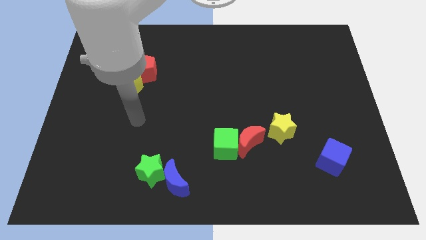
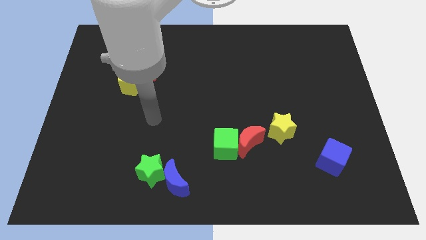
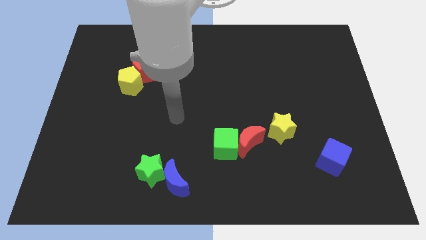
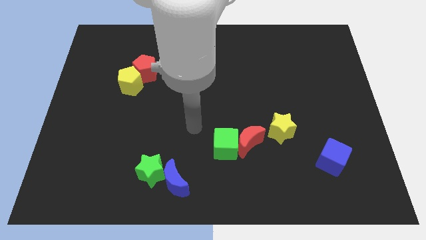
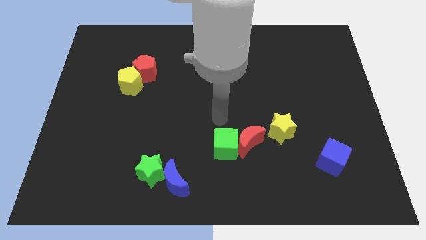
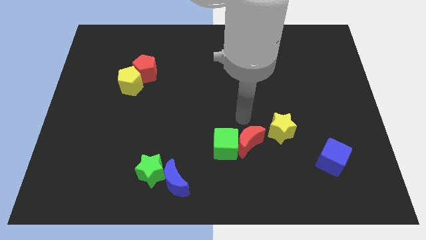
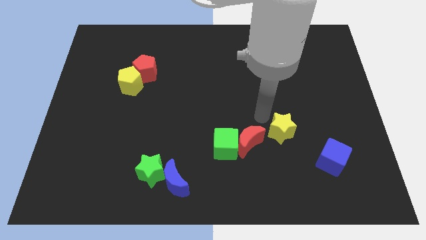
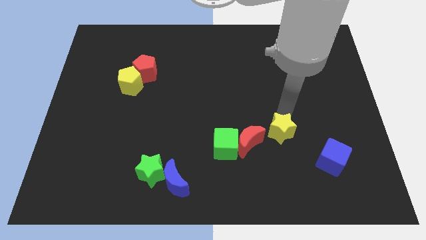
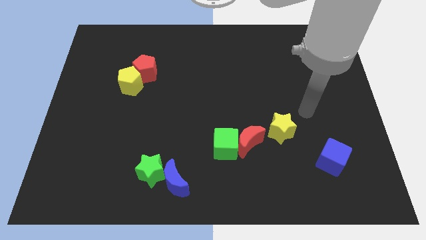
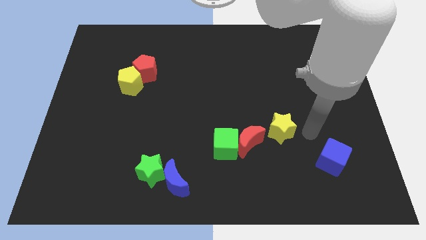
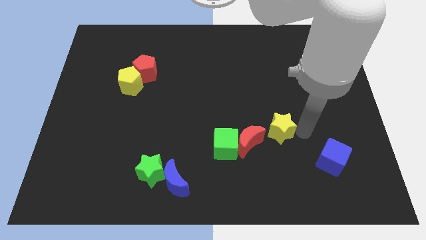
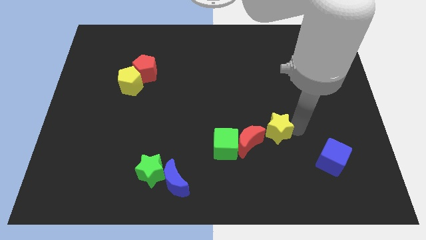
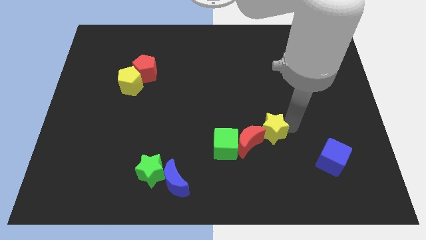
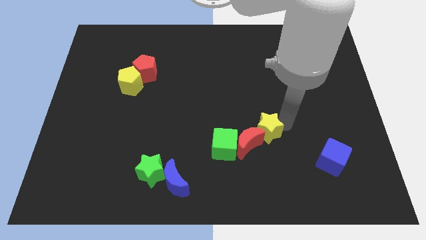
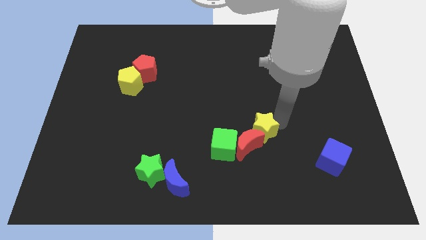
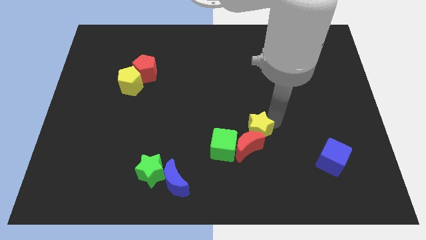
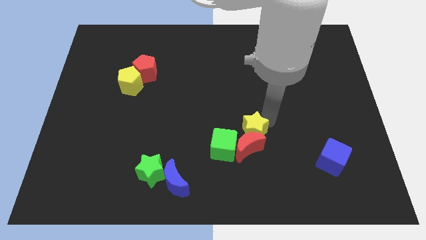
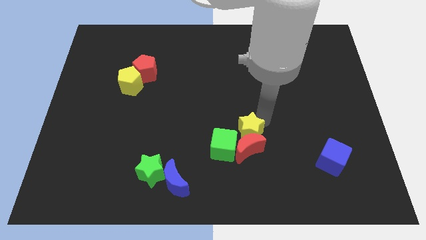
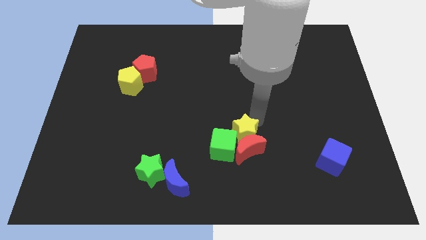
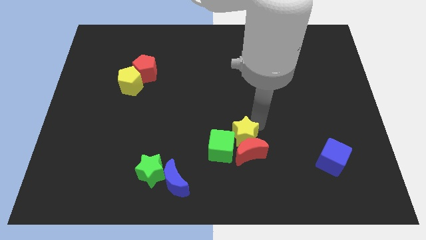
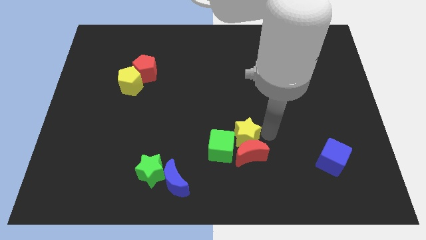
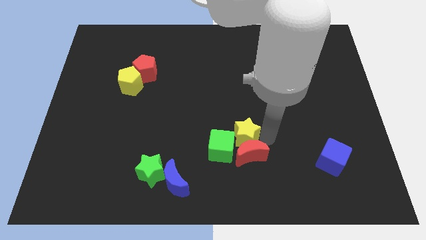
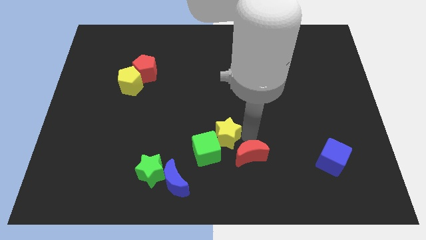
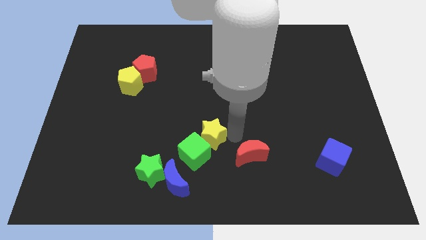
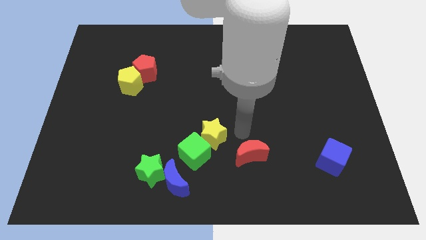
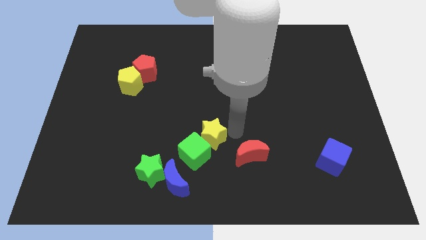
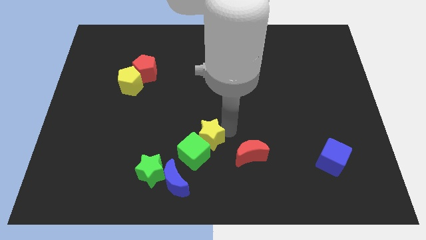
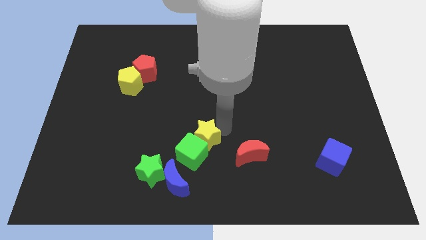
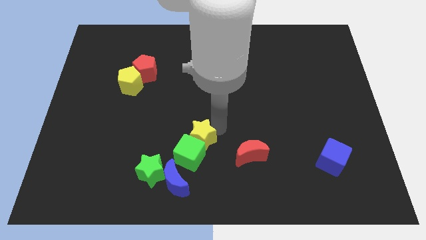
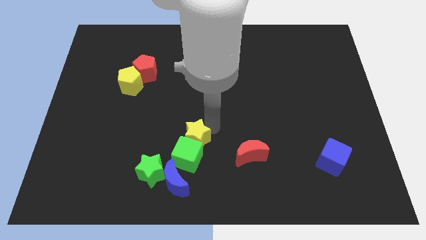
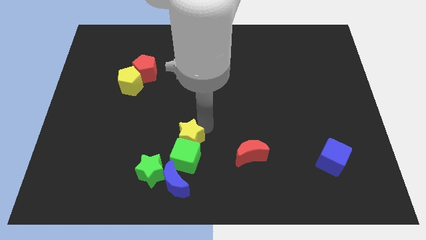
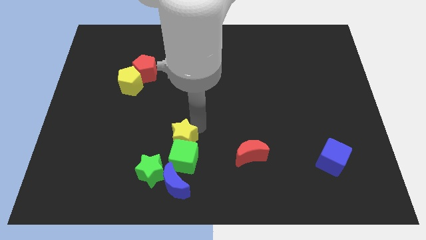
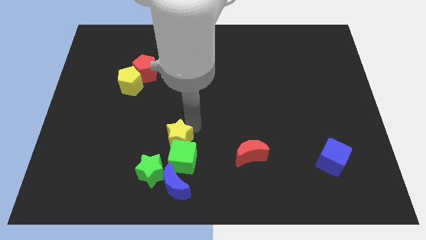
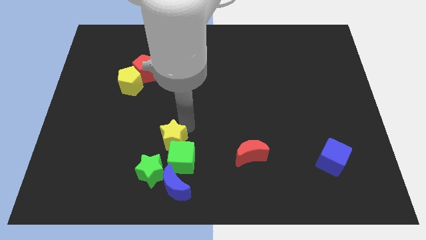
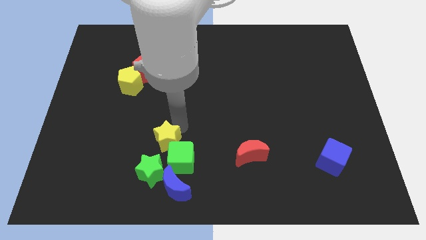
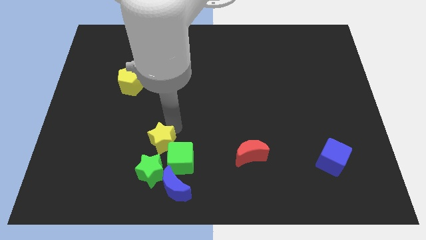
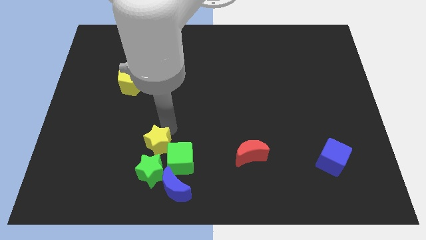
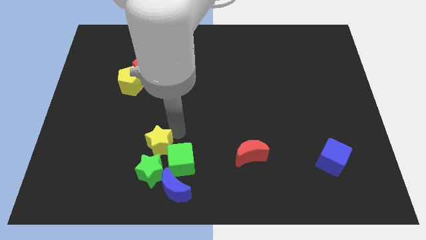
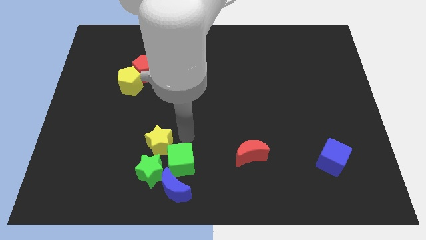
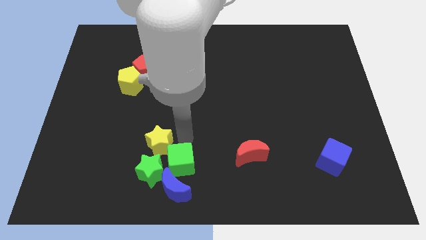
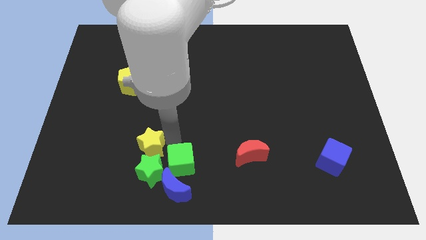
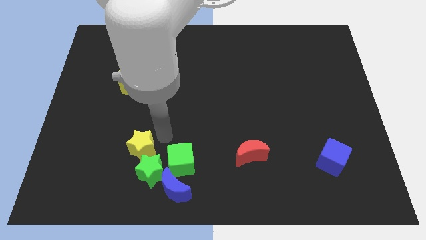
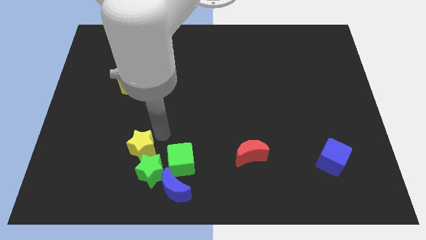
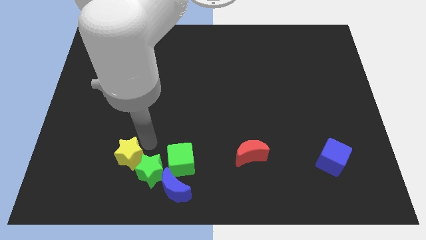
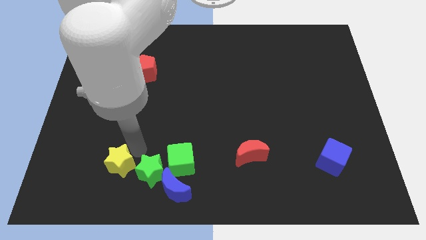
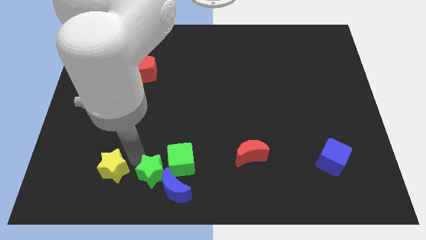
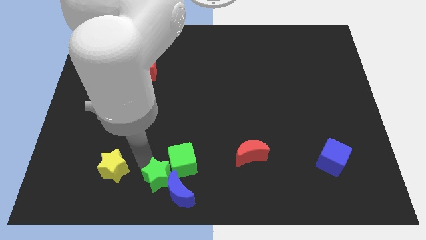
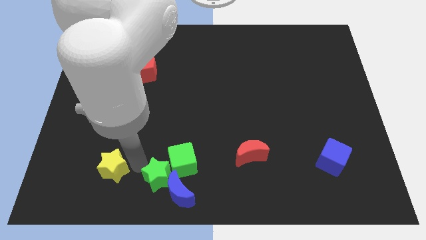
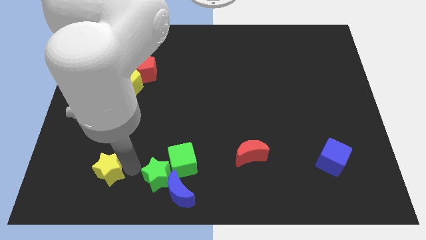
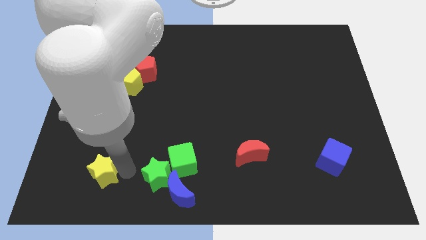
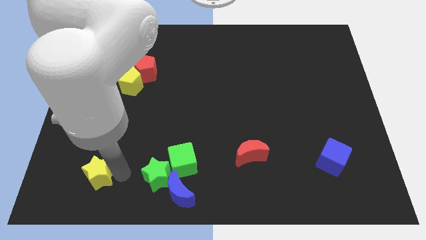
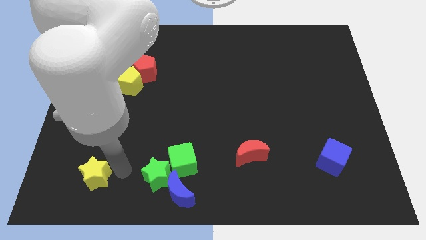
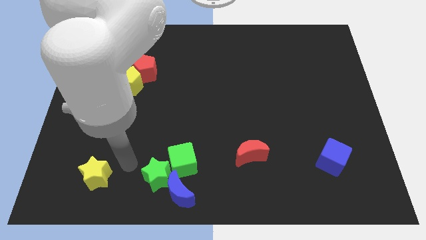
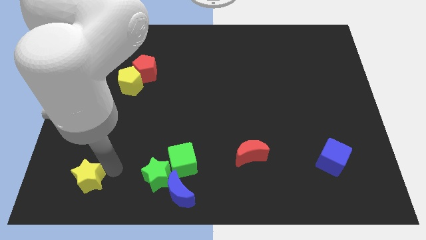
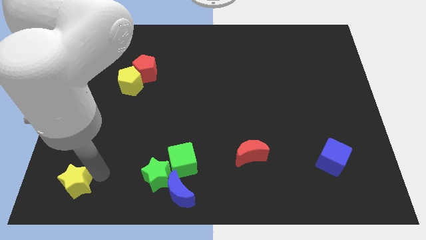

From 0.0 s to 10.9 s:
put the yellow star to the lower left corner
